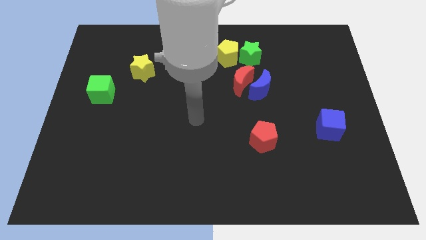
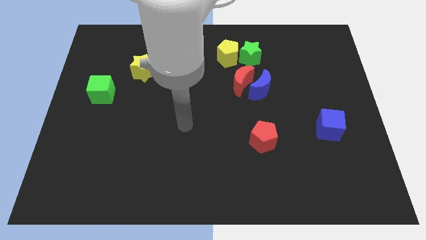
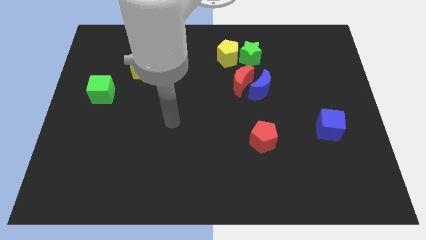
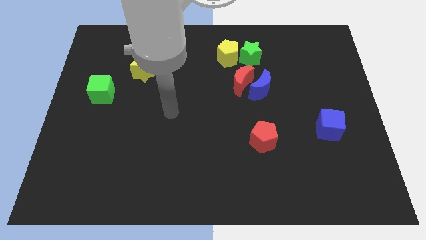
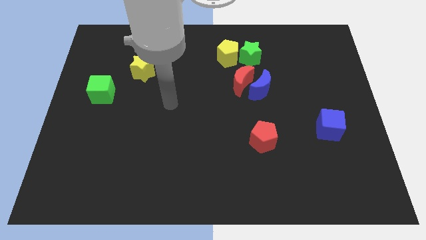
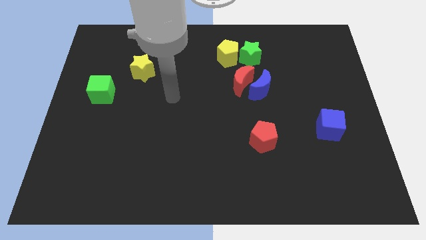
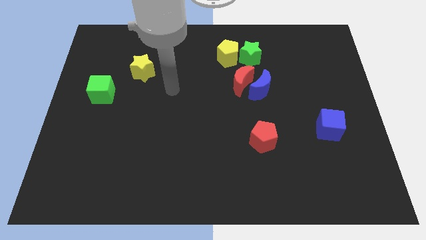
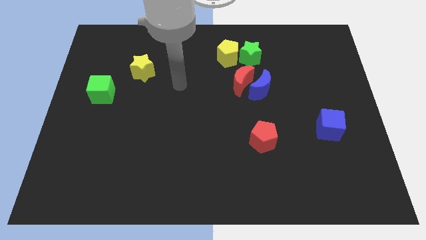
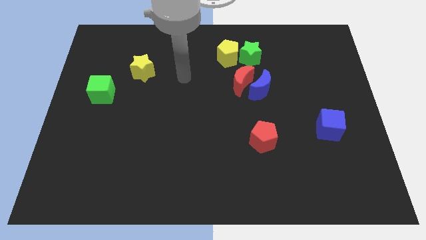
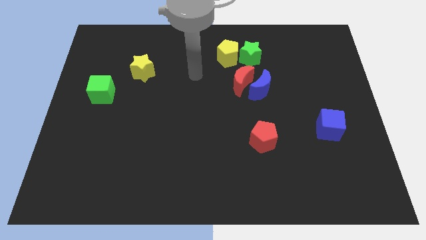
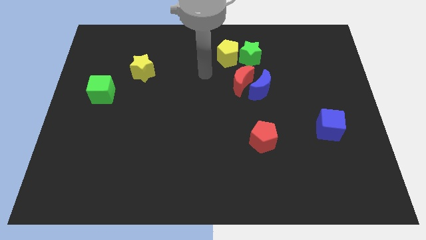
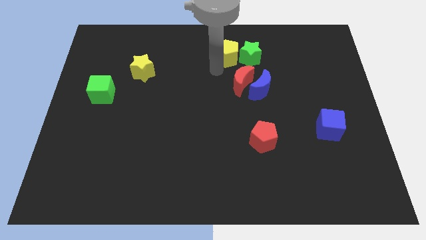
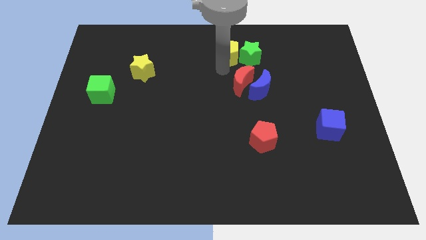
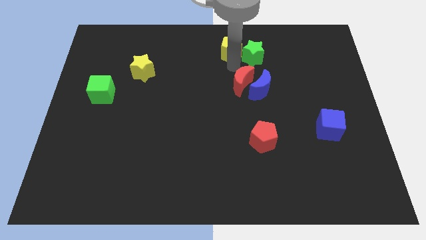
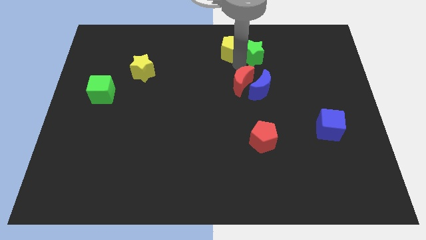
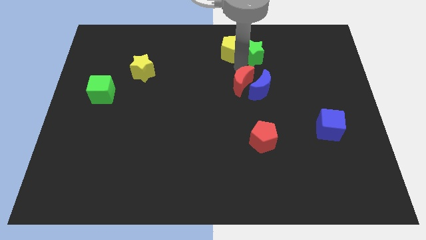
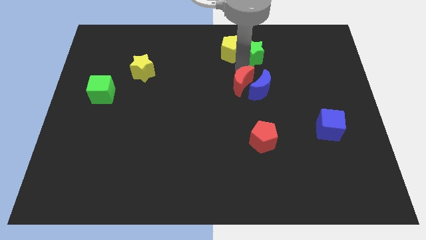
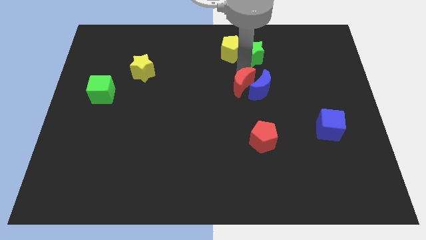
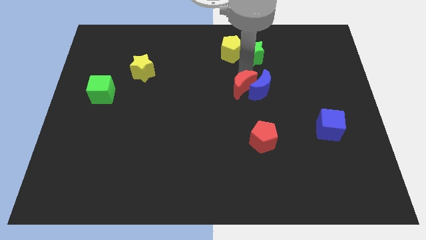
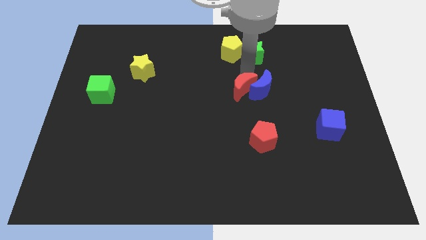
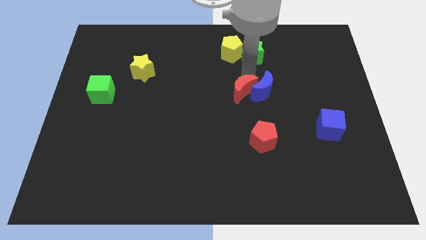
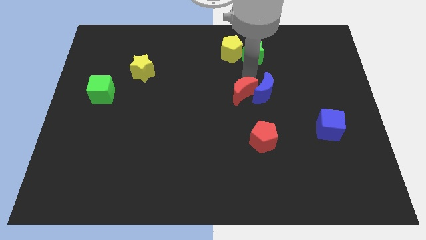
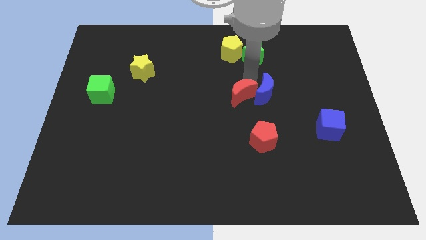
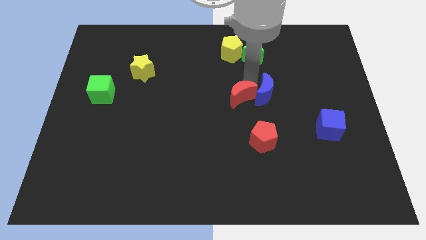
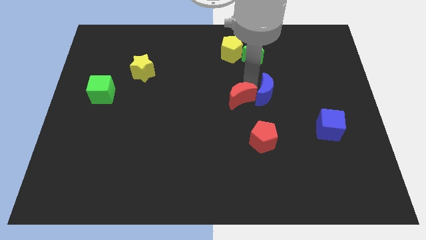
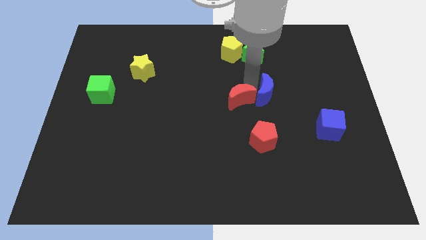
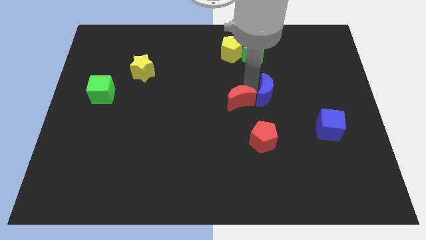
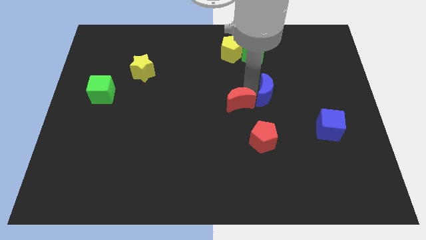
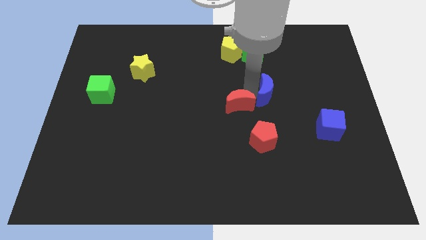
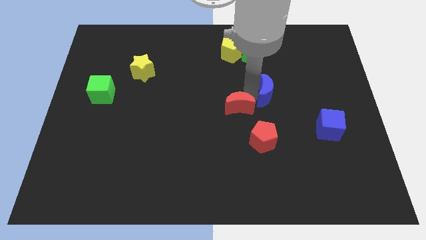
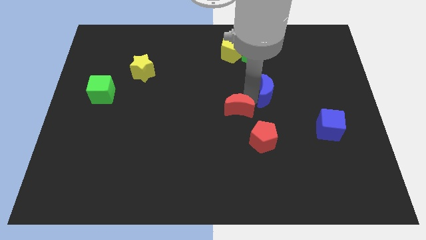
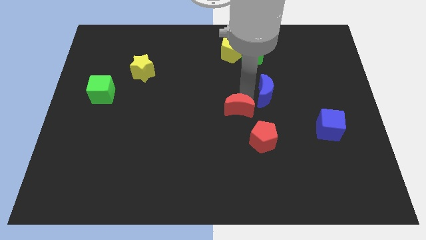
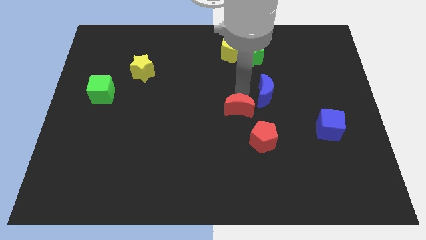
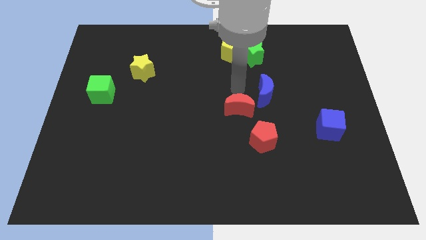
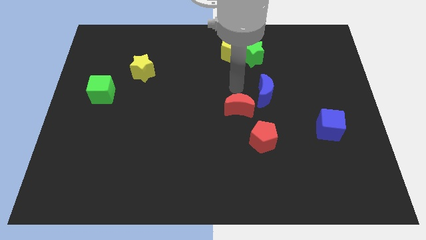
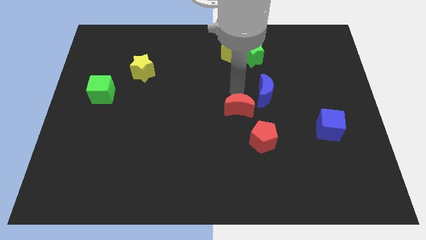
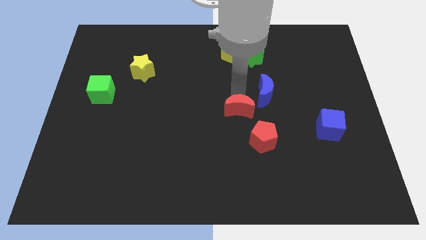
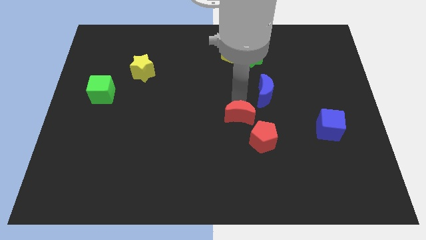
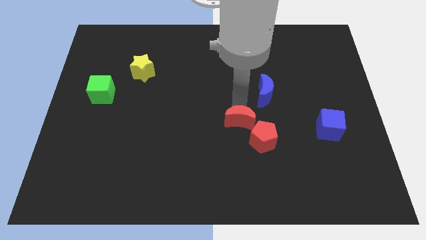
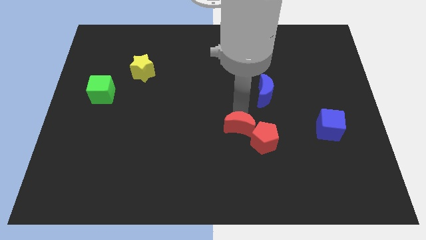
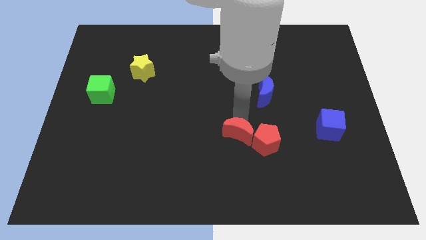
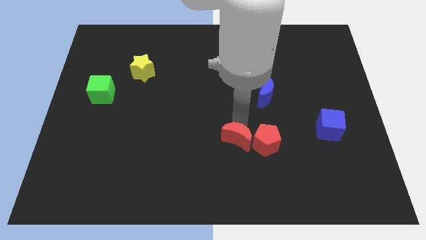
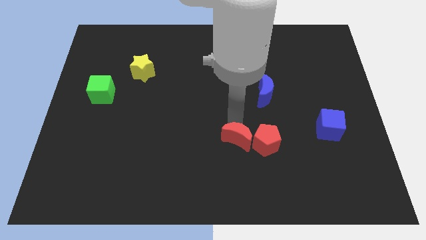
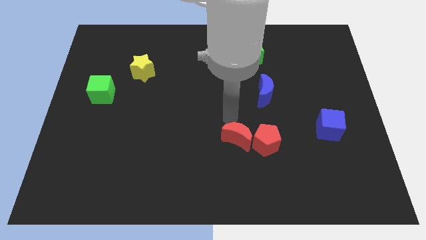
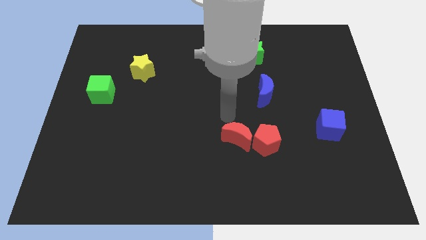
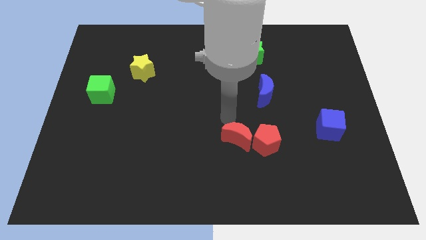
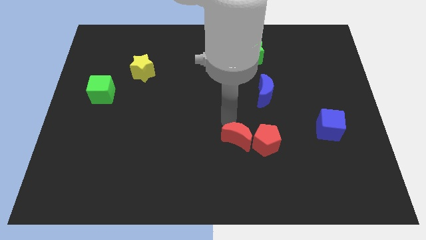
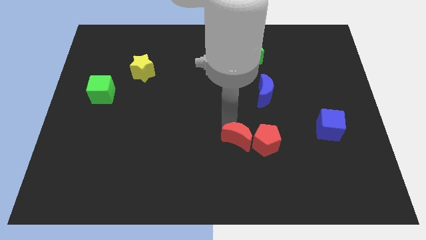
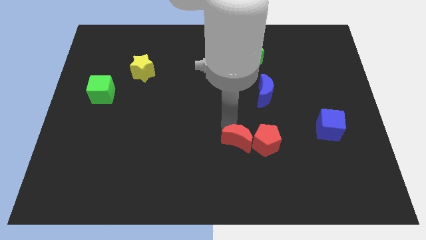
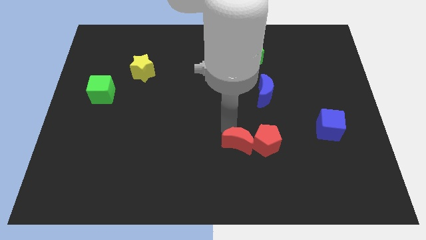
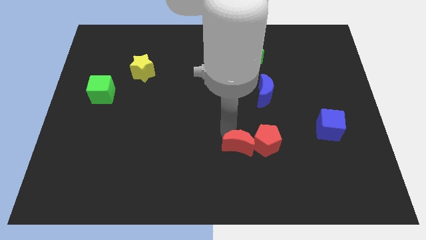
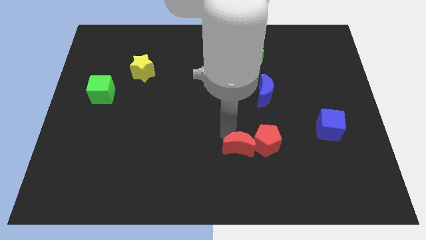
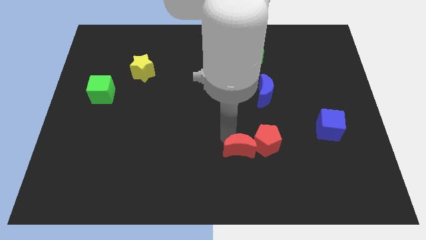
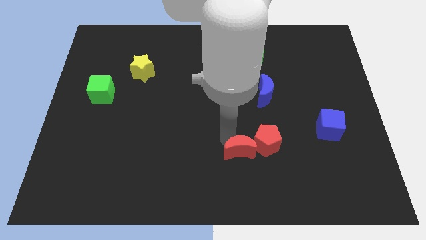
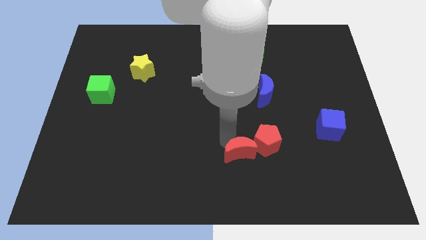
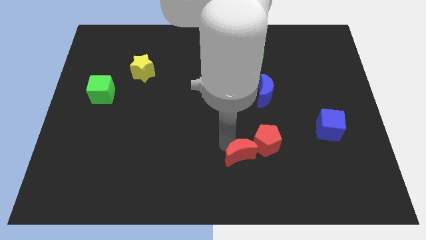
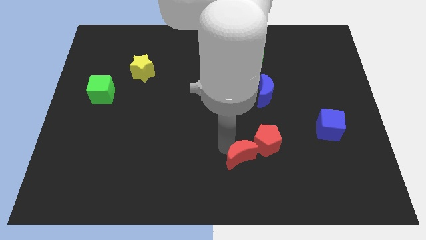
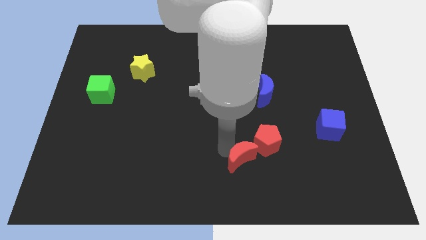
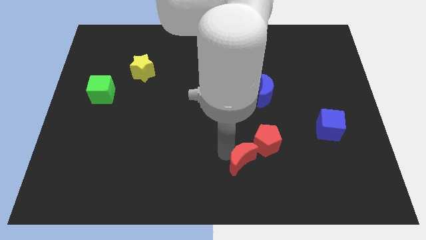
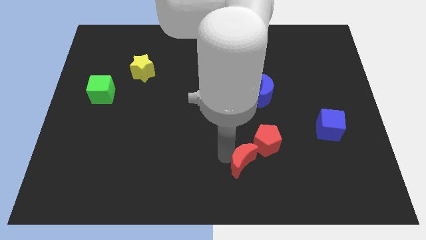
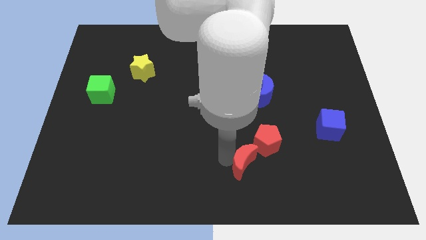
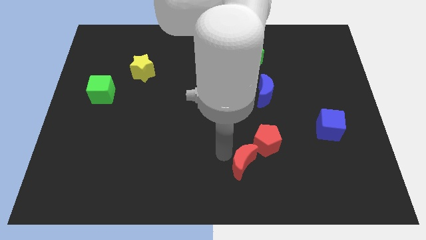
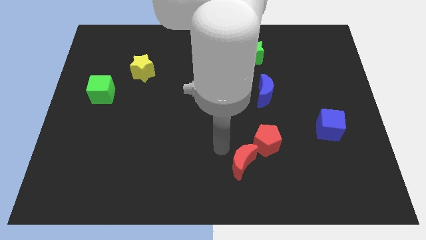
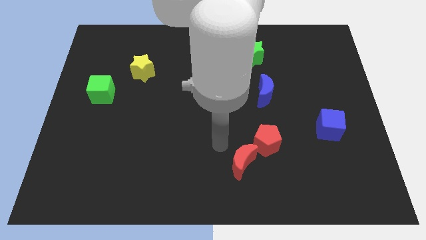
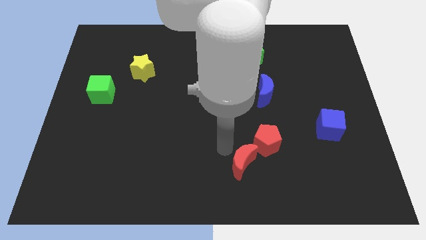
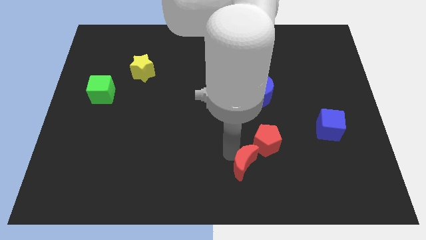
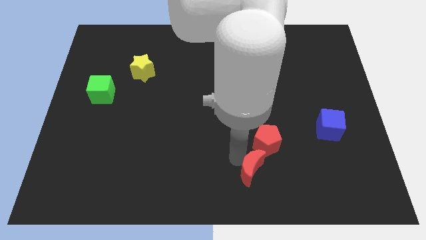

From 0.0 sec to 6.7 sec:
push the red moon to the bottom of the red pentagon

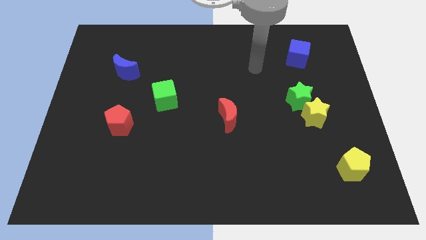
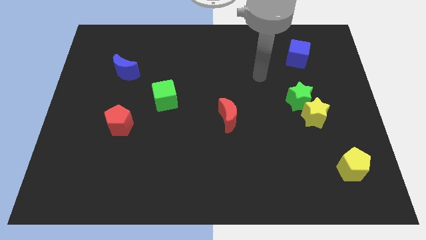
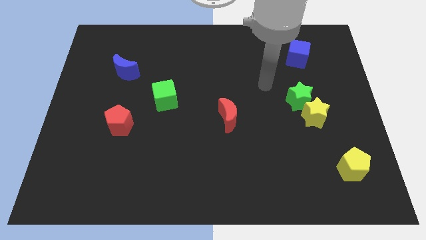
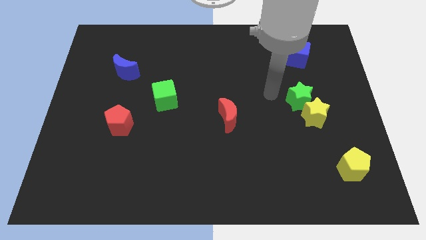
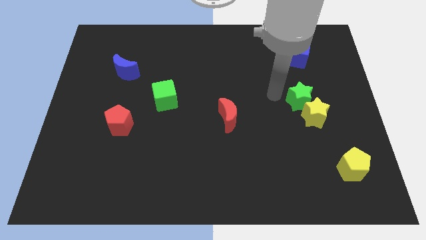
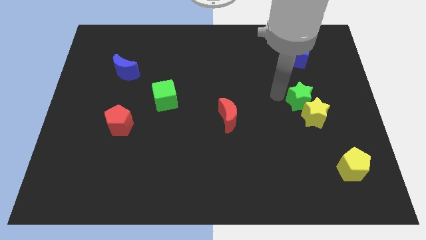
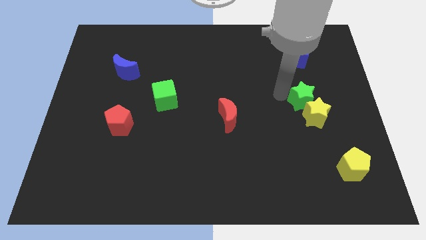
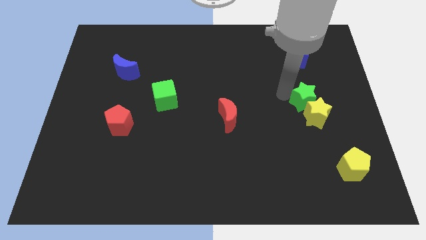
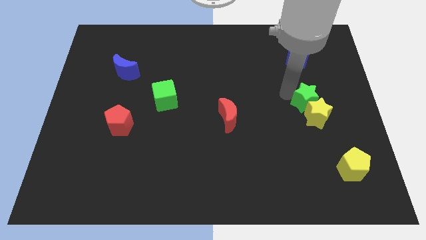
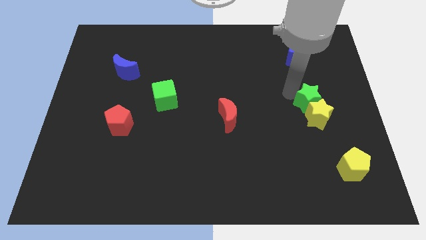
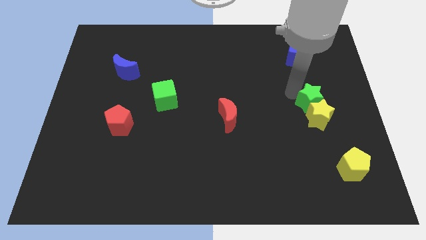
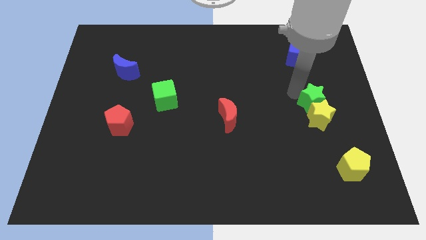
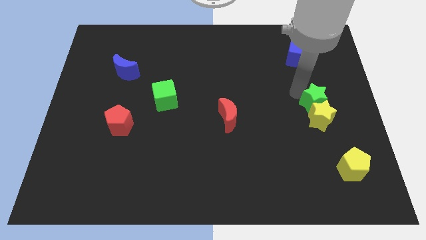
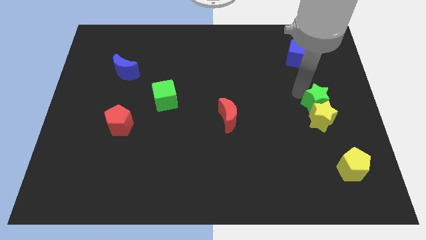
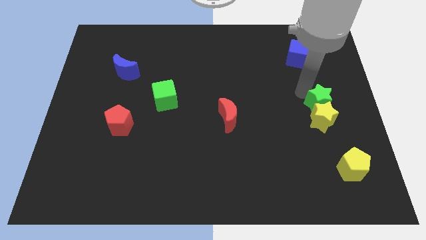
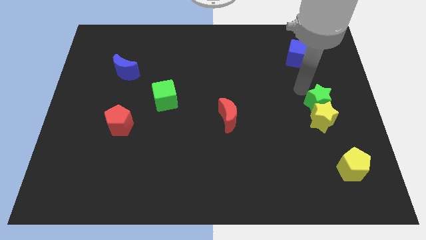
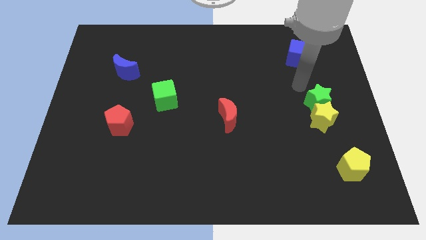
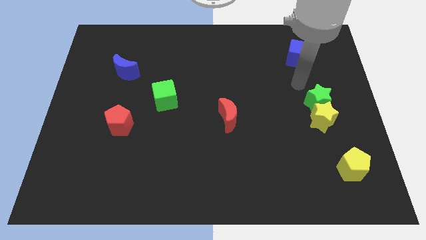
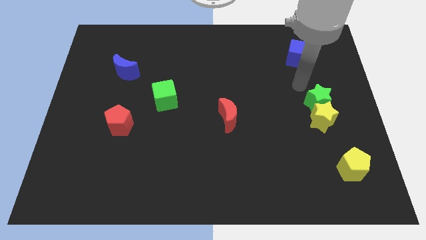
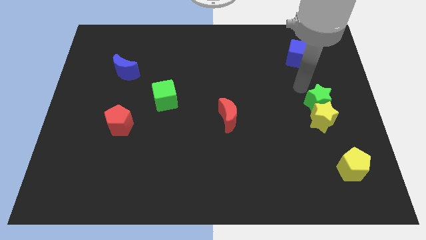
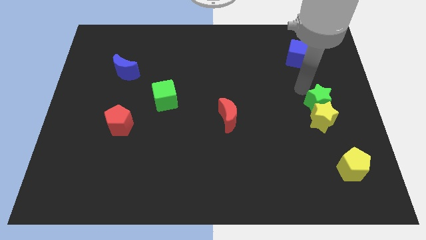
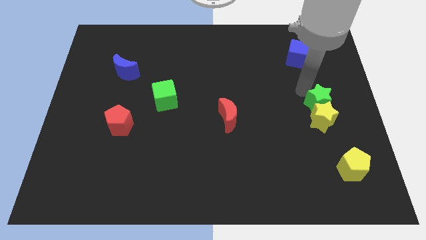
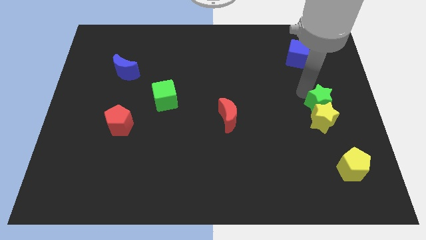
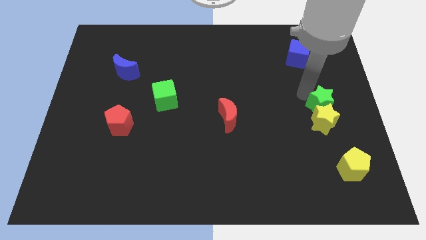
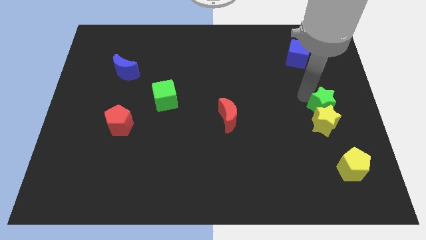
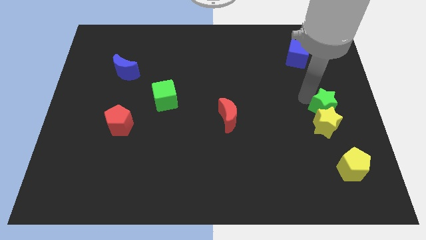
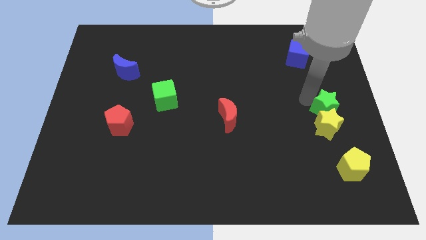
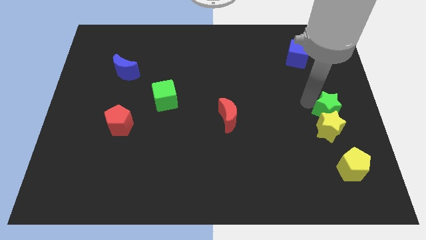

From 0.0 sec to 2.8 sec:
move the green star to the top of the yellow pentagon
